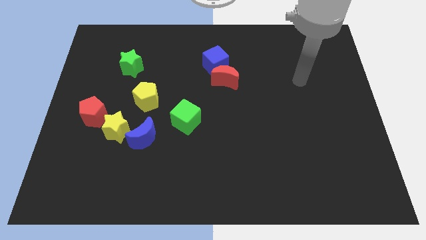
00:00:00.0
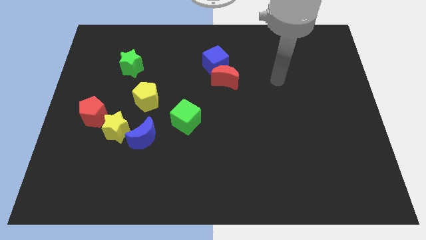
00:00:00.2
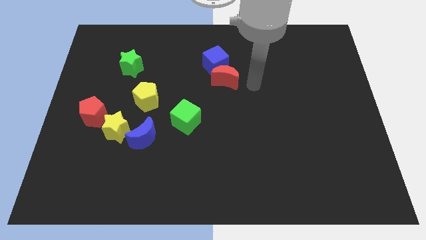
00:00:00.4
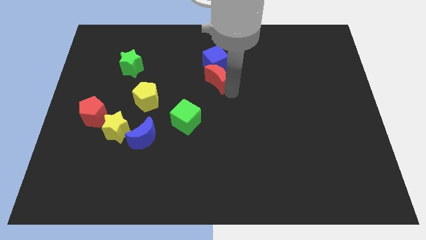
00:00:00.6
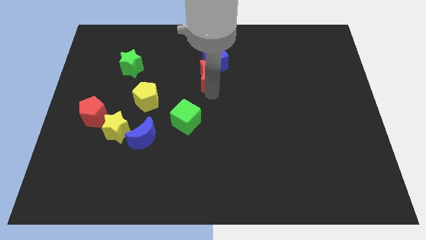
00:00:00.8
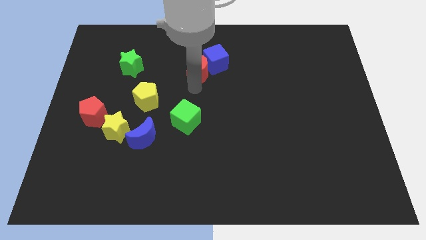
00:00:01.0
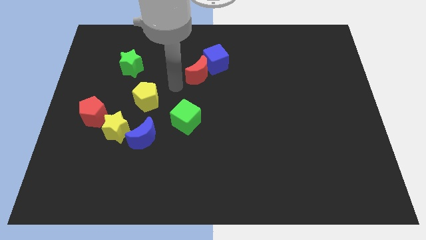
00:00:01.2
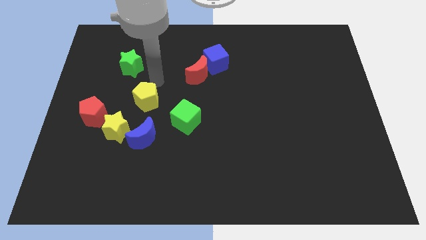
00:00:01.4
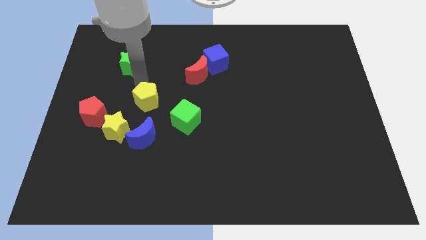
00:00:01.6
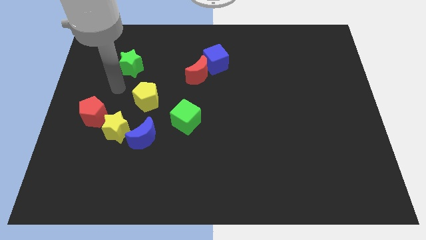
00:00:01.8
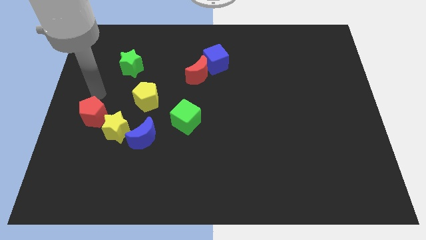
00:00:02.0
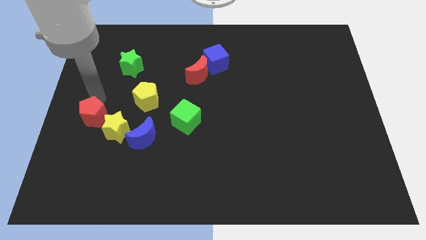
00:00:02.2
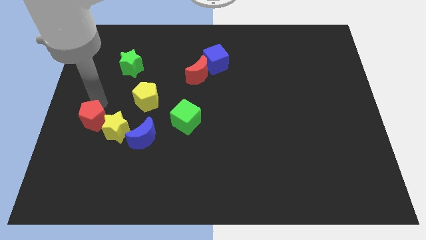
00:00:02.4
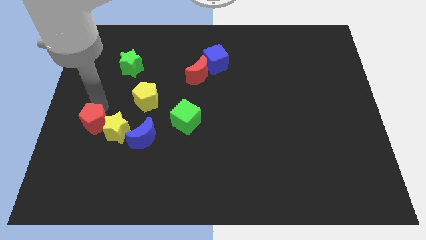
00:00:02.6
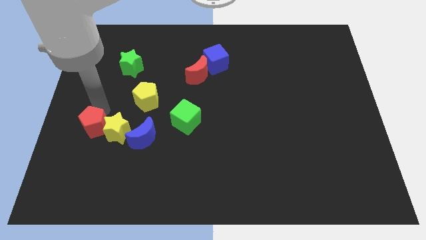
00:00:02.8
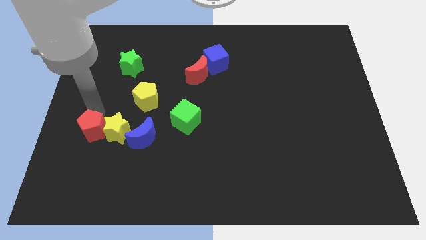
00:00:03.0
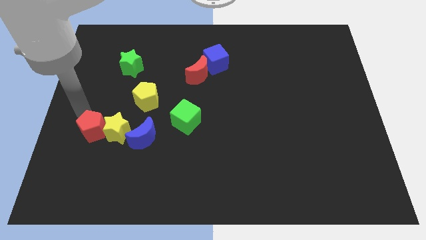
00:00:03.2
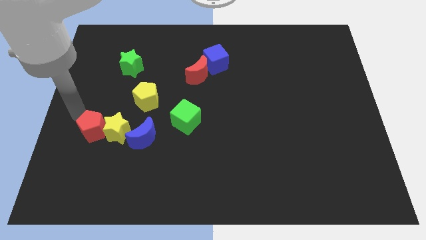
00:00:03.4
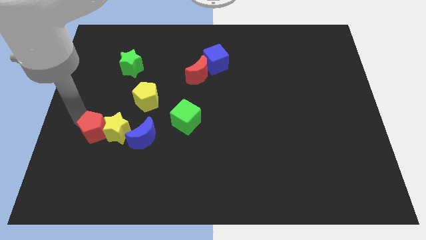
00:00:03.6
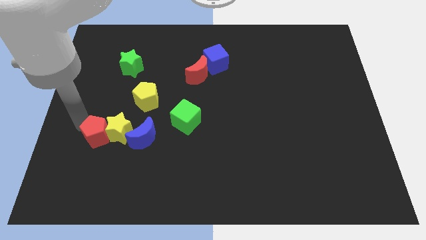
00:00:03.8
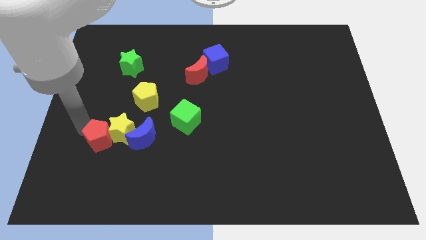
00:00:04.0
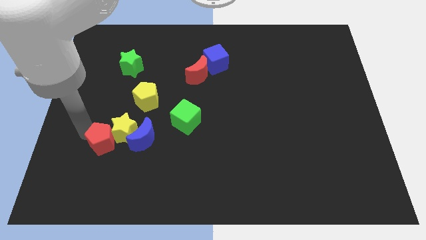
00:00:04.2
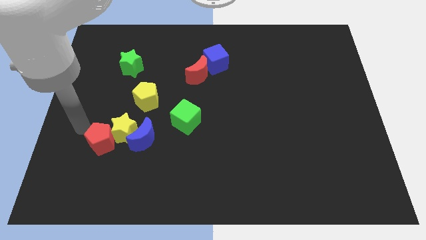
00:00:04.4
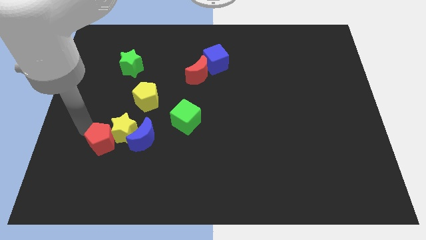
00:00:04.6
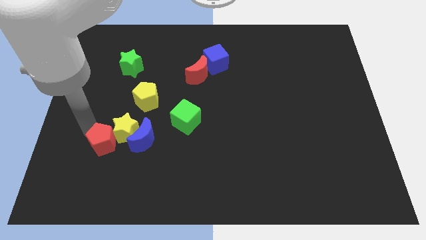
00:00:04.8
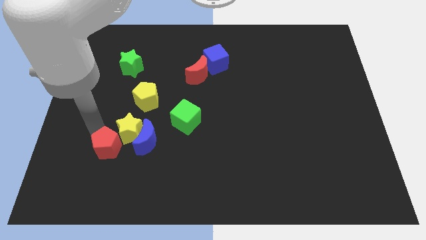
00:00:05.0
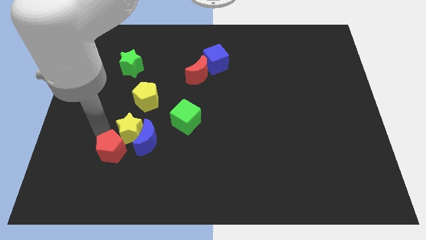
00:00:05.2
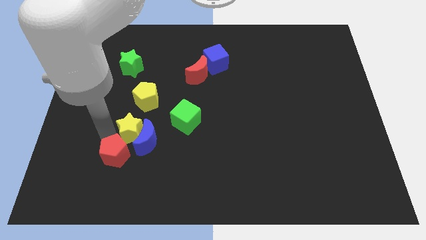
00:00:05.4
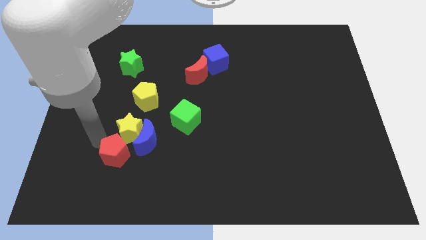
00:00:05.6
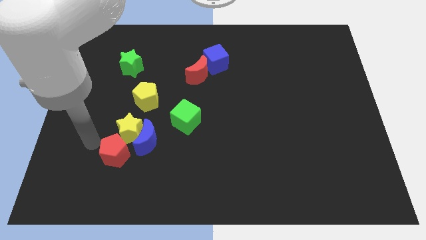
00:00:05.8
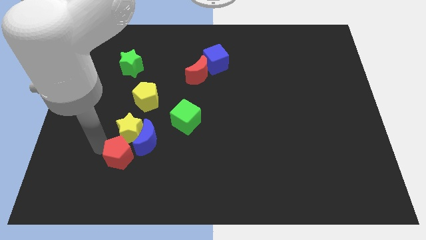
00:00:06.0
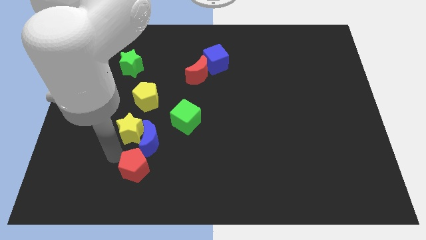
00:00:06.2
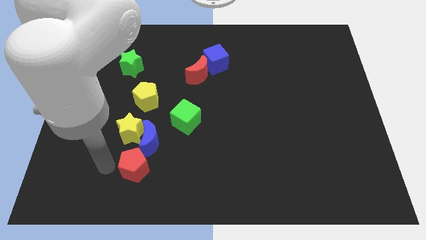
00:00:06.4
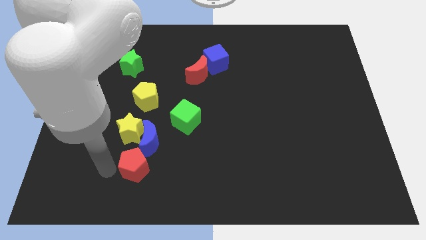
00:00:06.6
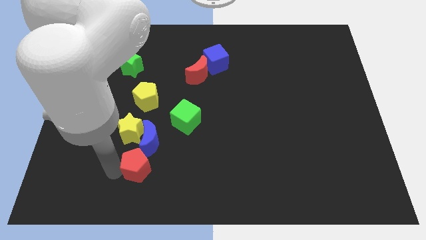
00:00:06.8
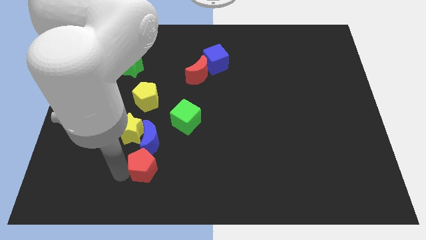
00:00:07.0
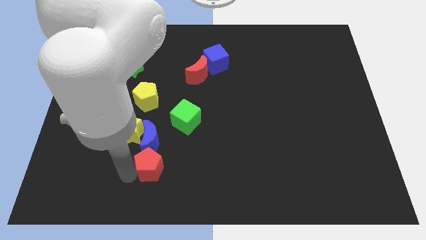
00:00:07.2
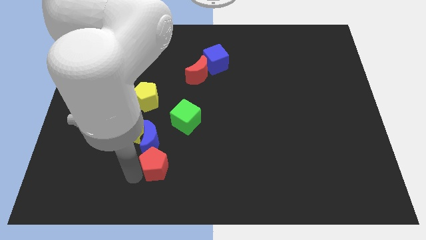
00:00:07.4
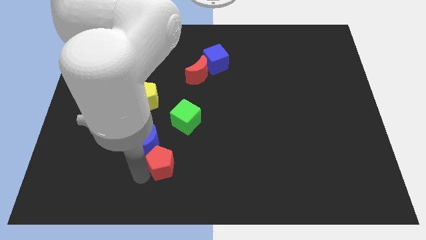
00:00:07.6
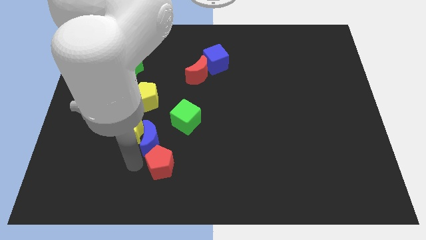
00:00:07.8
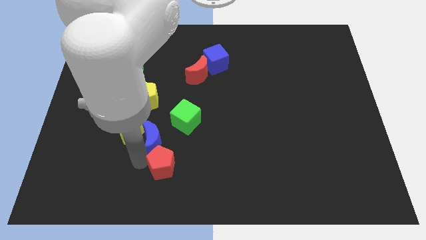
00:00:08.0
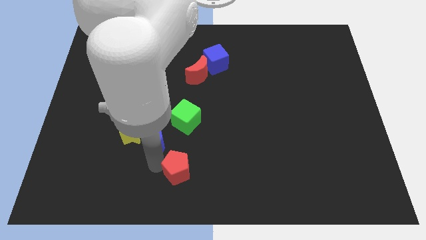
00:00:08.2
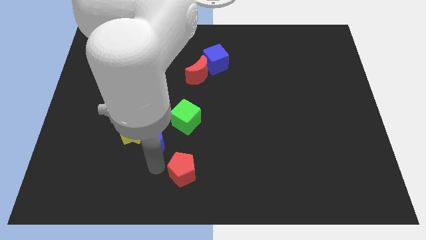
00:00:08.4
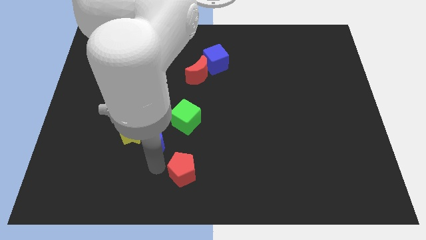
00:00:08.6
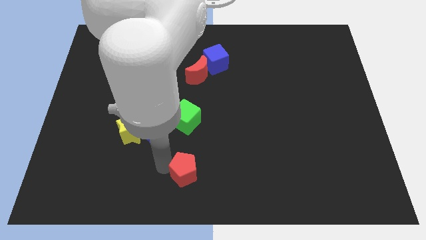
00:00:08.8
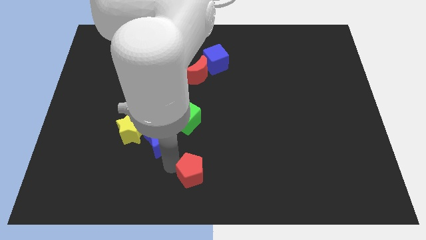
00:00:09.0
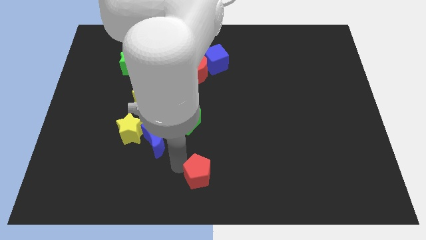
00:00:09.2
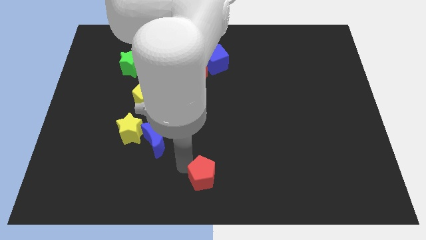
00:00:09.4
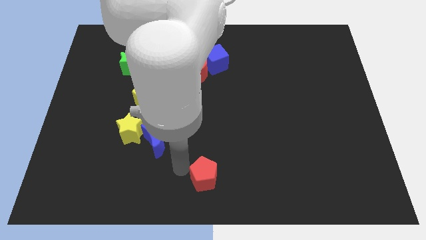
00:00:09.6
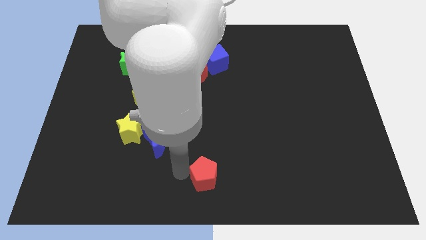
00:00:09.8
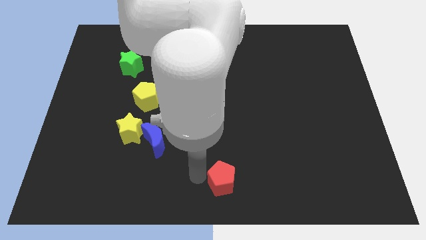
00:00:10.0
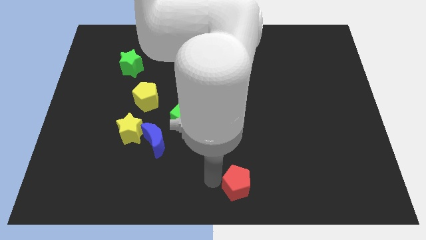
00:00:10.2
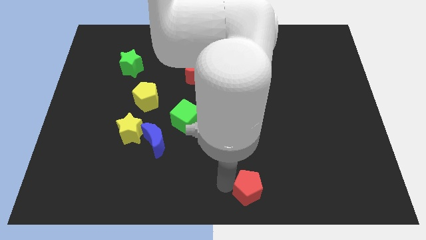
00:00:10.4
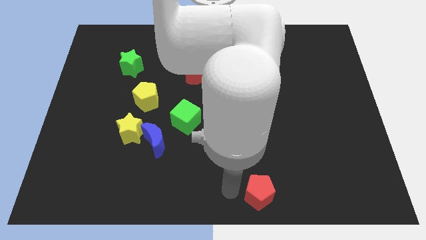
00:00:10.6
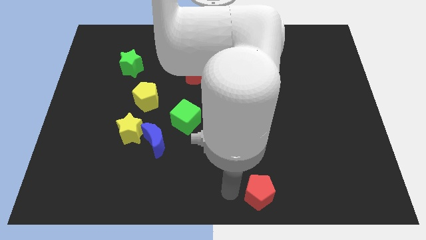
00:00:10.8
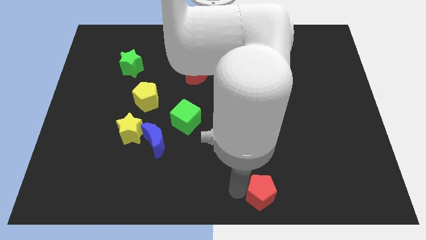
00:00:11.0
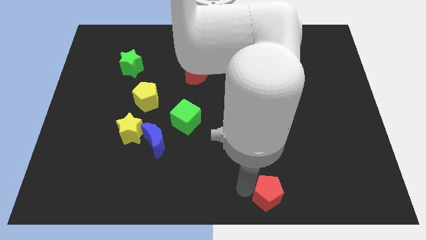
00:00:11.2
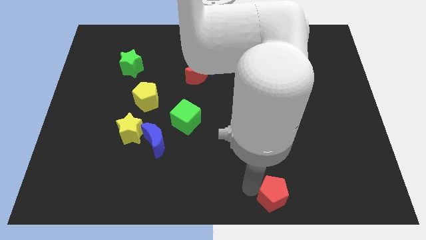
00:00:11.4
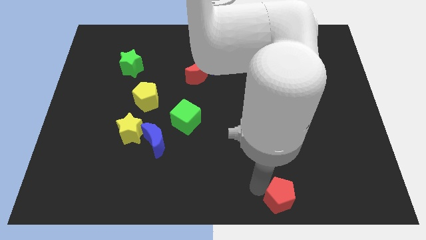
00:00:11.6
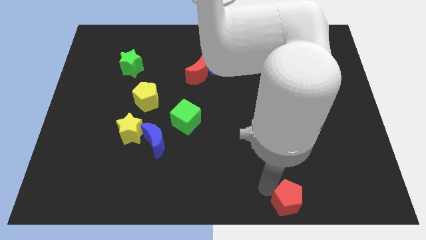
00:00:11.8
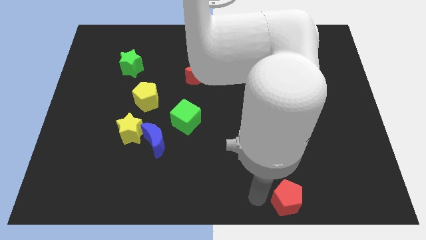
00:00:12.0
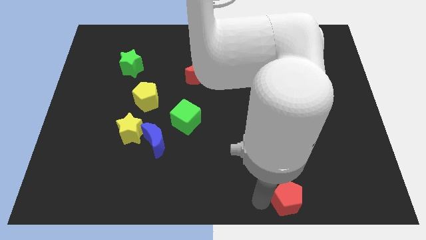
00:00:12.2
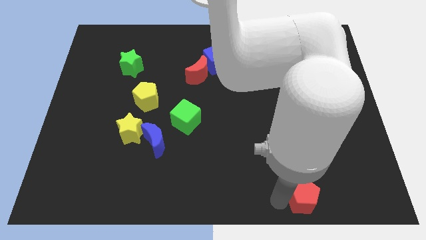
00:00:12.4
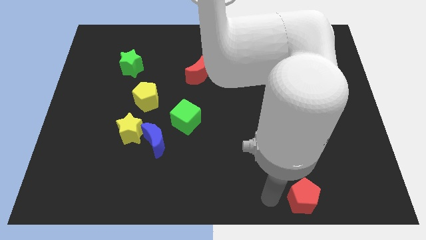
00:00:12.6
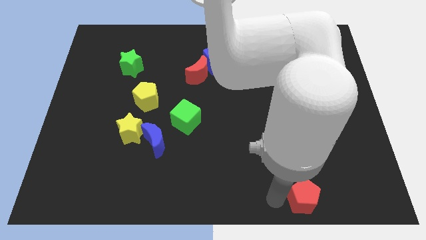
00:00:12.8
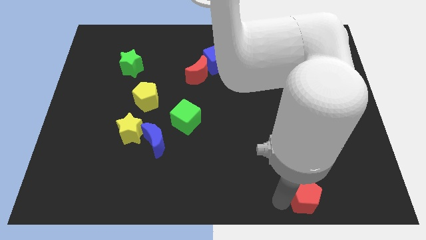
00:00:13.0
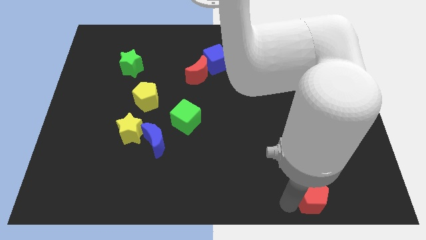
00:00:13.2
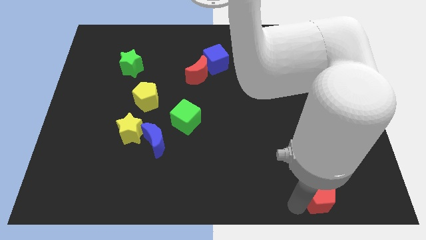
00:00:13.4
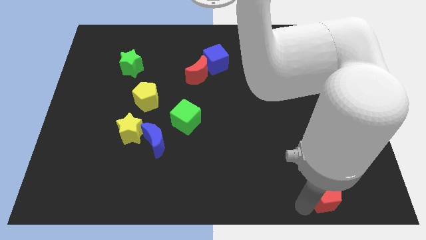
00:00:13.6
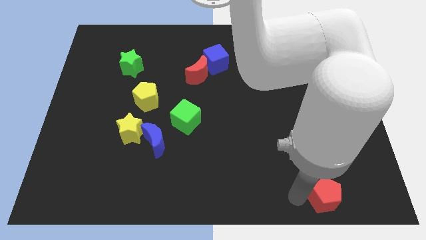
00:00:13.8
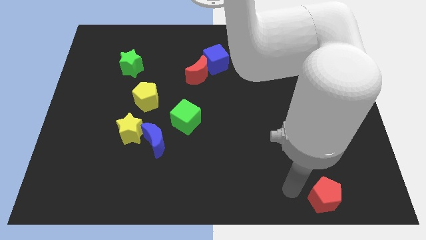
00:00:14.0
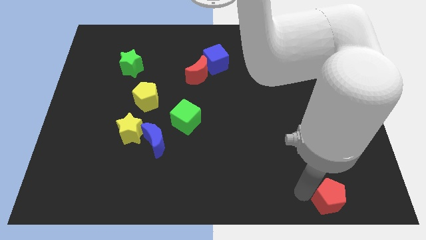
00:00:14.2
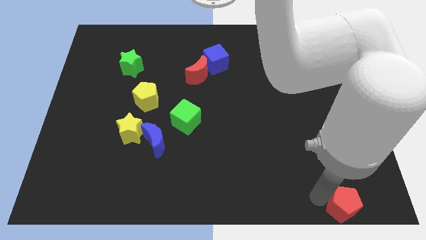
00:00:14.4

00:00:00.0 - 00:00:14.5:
slide the red pentagon to the bottom right
